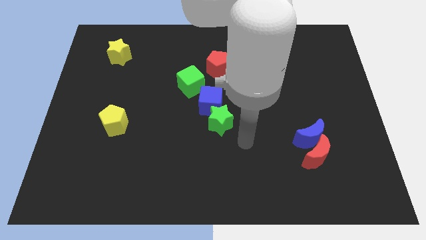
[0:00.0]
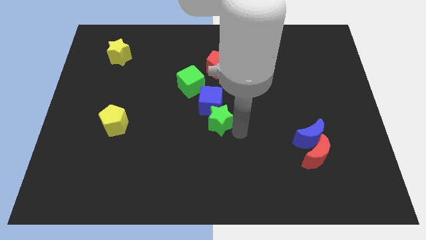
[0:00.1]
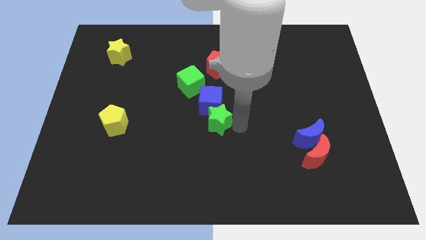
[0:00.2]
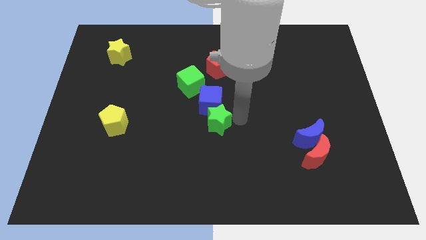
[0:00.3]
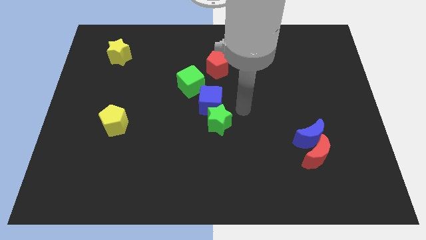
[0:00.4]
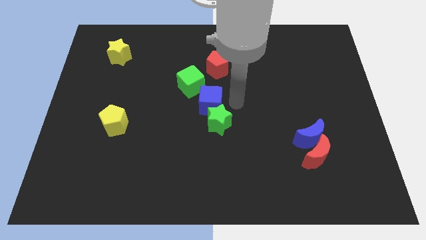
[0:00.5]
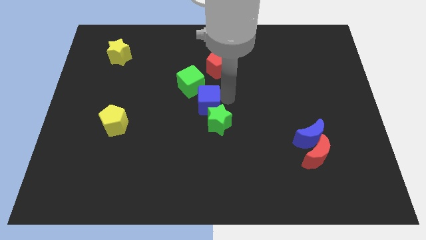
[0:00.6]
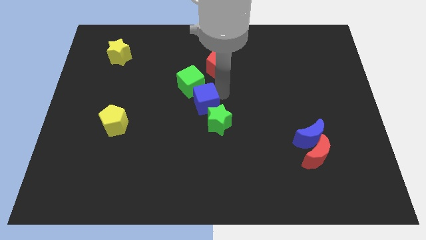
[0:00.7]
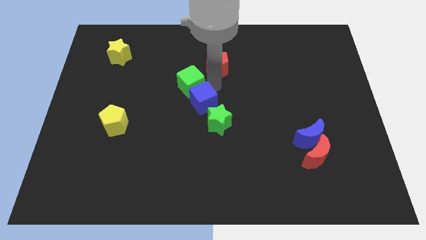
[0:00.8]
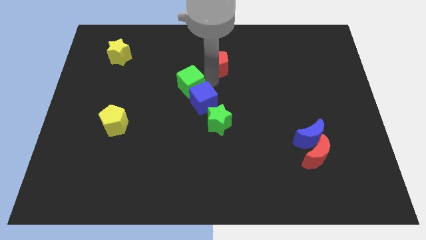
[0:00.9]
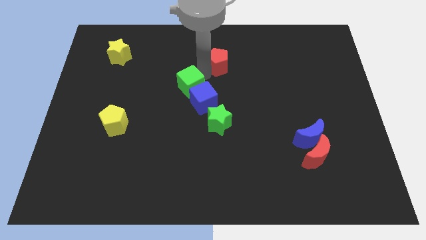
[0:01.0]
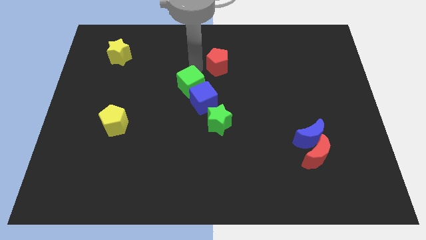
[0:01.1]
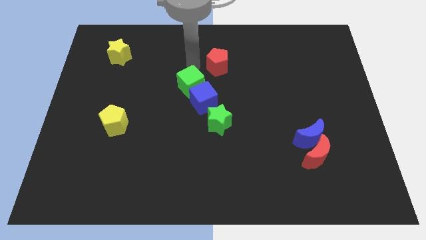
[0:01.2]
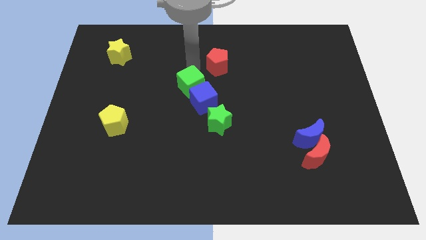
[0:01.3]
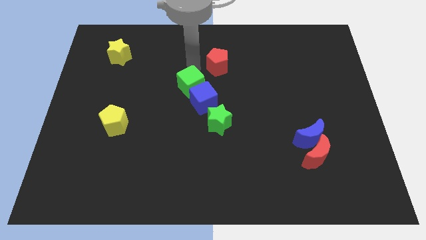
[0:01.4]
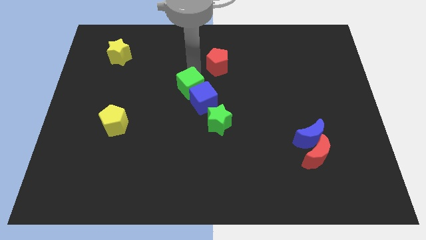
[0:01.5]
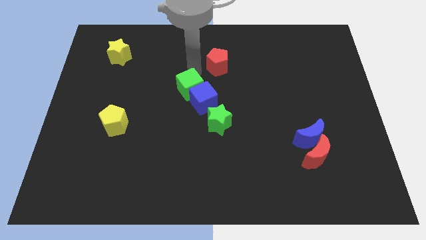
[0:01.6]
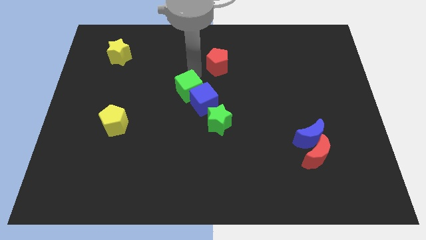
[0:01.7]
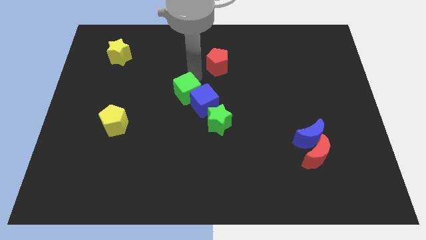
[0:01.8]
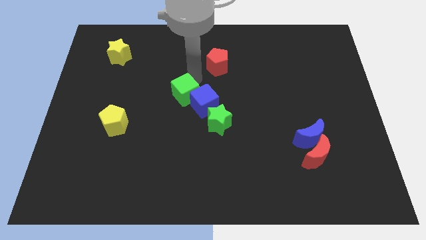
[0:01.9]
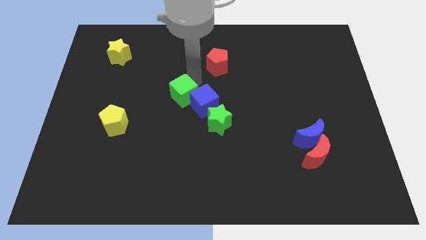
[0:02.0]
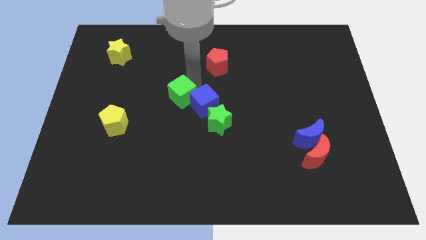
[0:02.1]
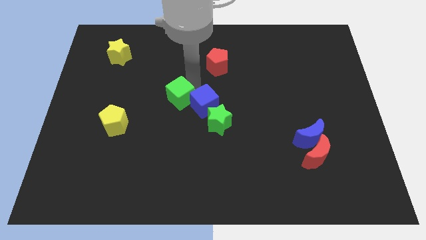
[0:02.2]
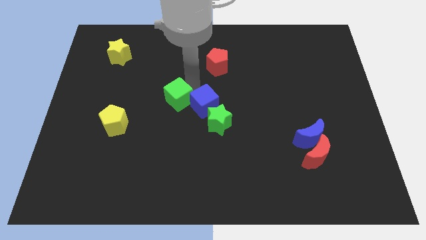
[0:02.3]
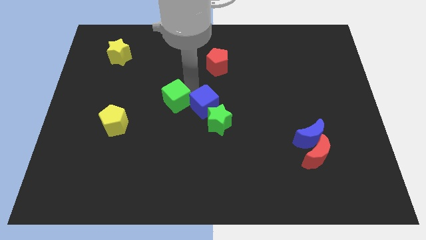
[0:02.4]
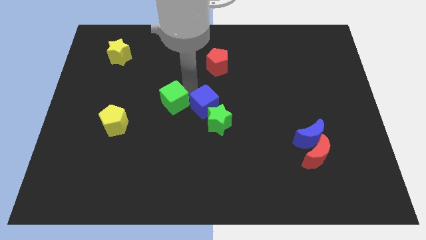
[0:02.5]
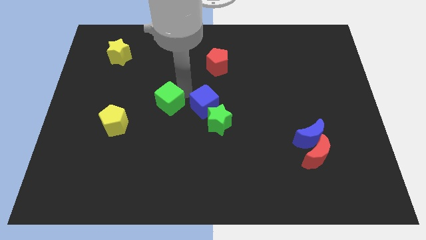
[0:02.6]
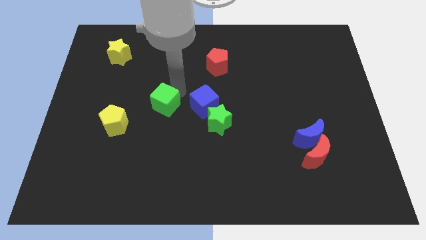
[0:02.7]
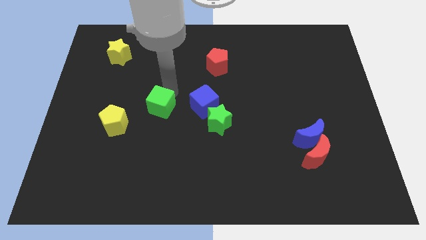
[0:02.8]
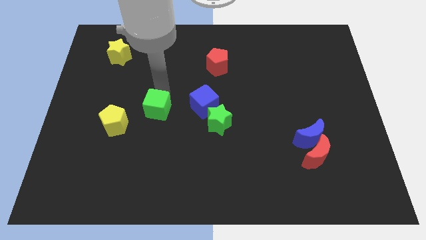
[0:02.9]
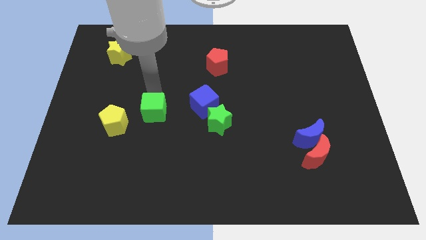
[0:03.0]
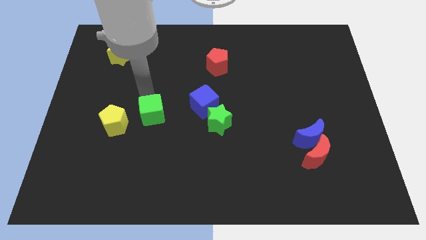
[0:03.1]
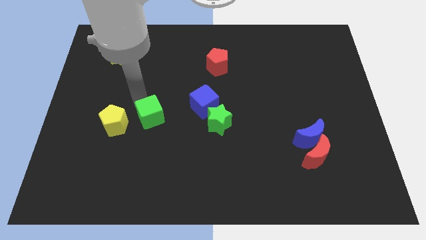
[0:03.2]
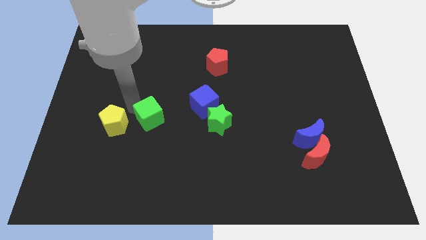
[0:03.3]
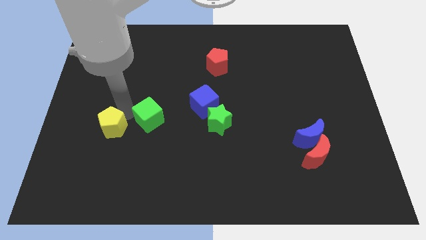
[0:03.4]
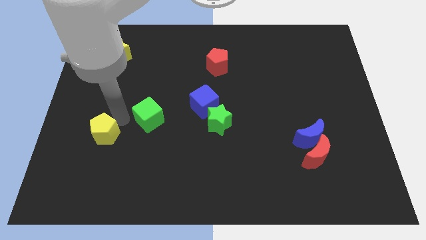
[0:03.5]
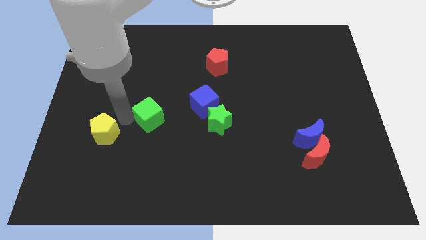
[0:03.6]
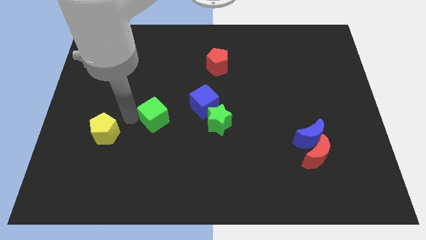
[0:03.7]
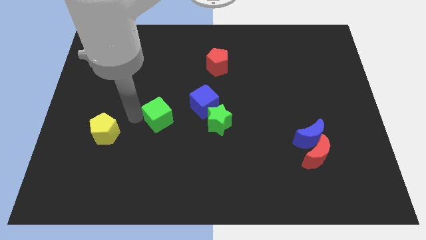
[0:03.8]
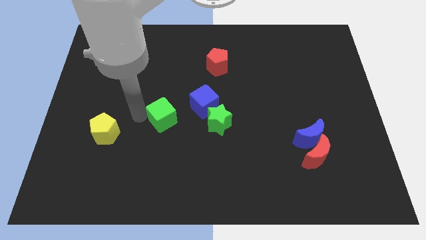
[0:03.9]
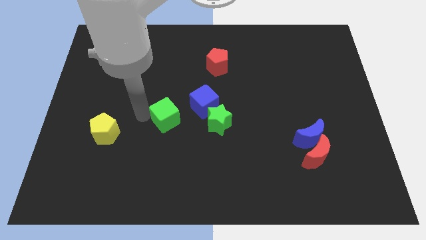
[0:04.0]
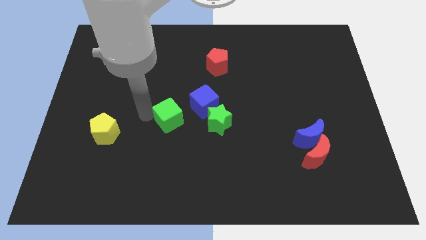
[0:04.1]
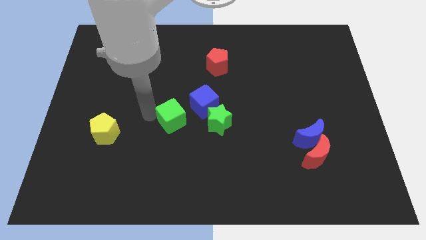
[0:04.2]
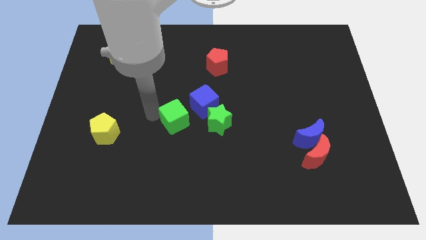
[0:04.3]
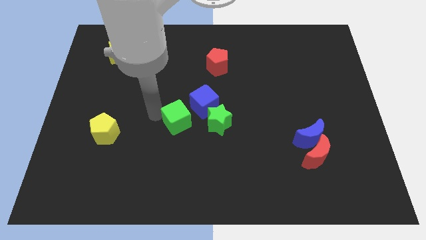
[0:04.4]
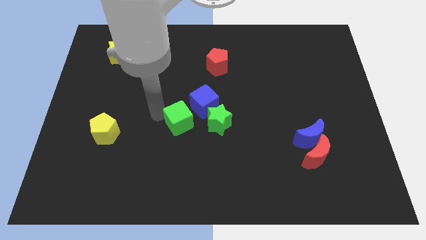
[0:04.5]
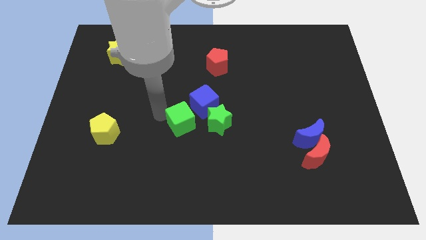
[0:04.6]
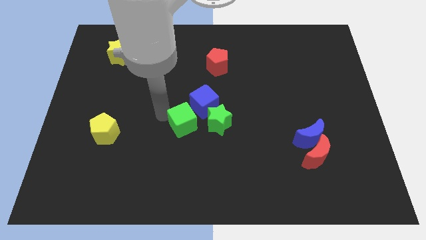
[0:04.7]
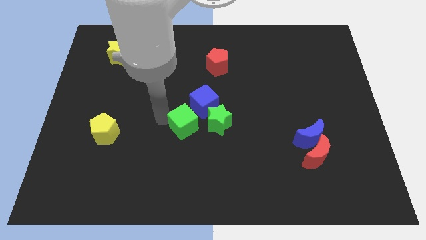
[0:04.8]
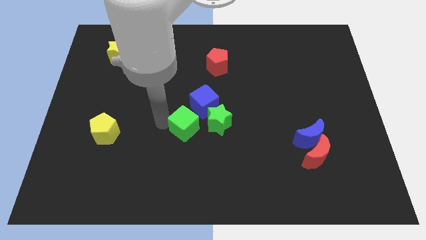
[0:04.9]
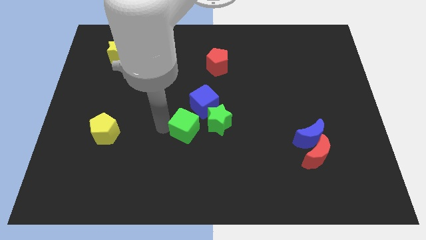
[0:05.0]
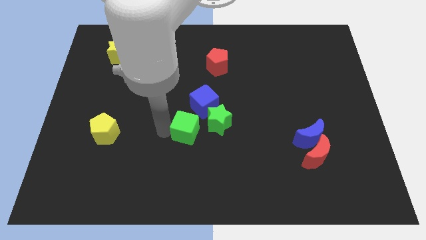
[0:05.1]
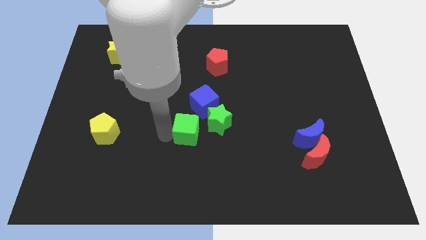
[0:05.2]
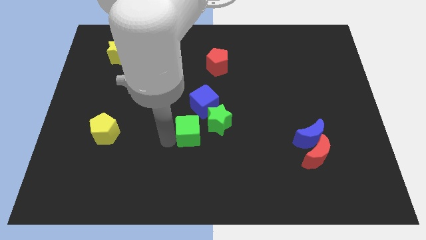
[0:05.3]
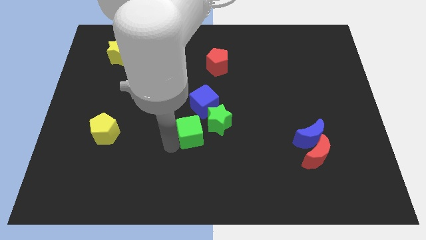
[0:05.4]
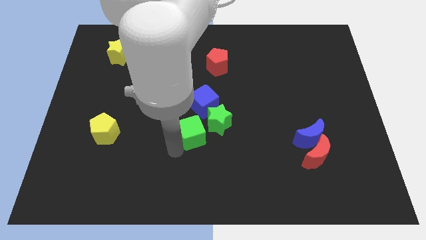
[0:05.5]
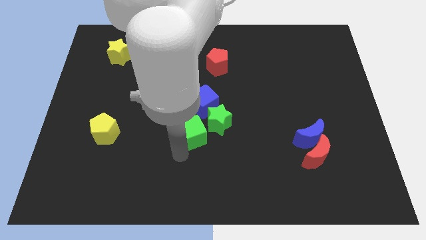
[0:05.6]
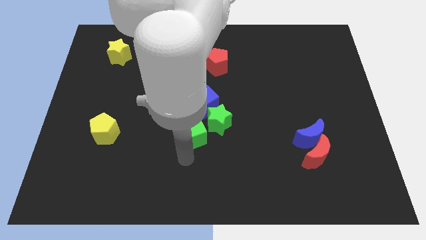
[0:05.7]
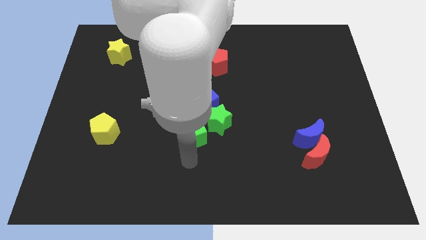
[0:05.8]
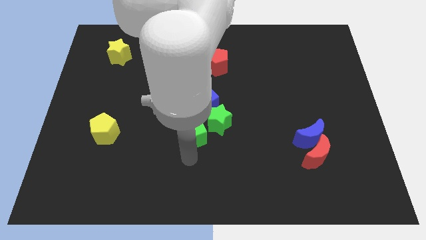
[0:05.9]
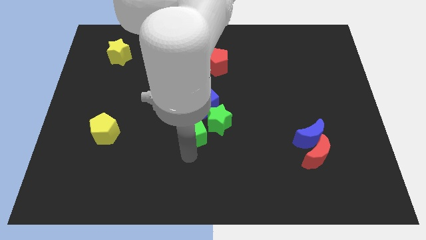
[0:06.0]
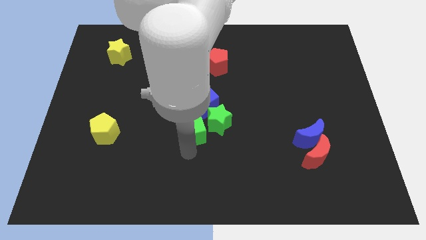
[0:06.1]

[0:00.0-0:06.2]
move the green cube close to the green star

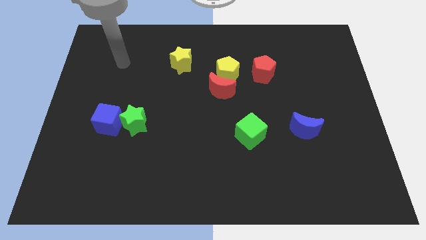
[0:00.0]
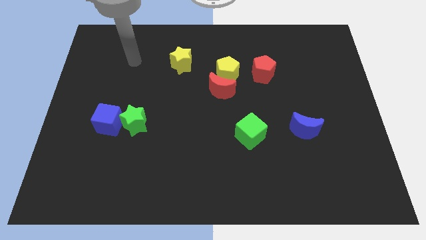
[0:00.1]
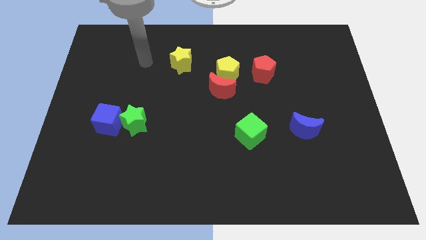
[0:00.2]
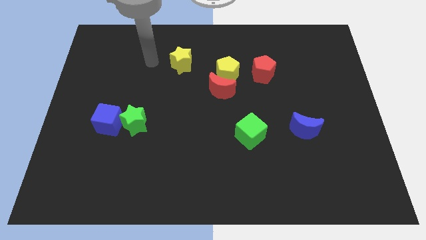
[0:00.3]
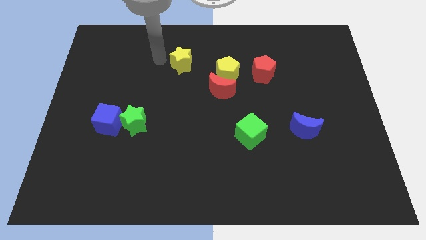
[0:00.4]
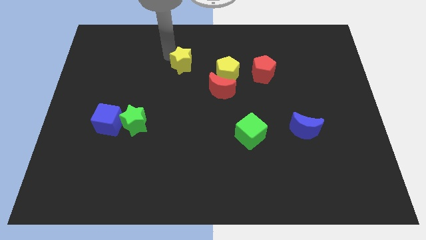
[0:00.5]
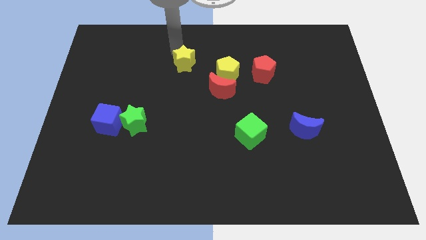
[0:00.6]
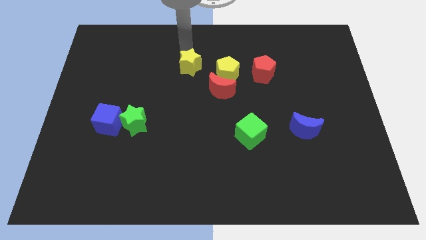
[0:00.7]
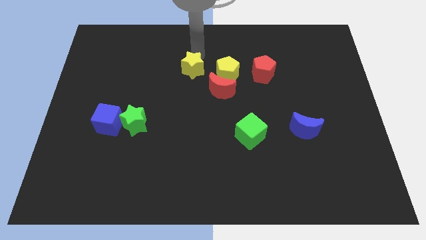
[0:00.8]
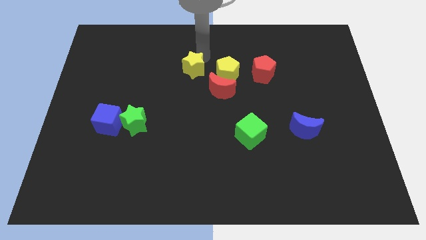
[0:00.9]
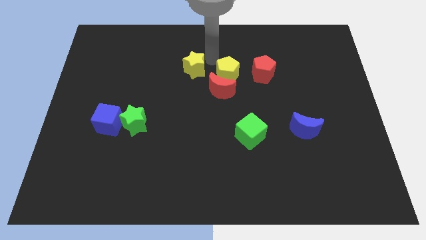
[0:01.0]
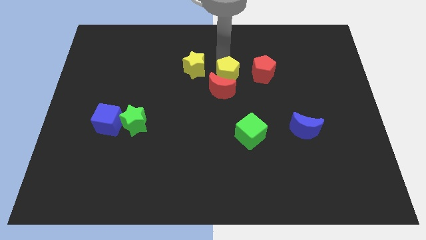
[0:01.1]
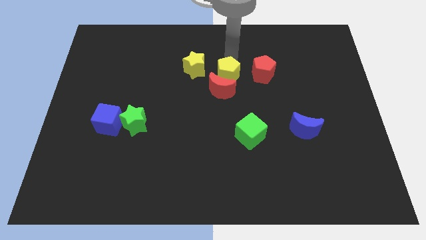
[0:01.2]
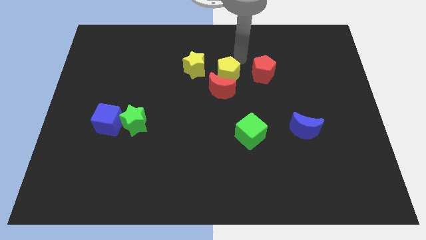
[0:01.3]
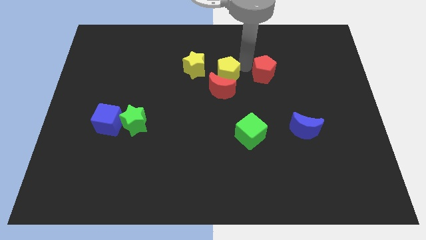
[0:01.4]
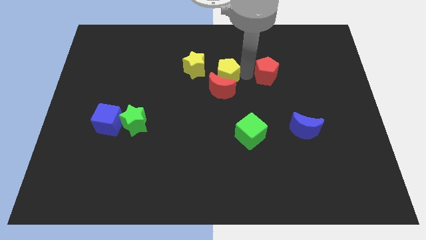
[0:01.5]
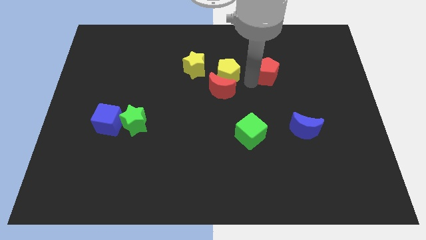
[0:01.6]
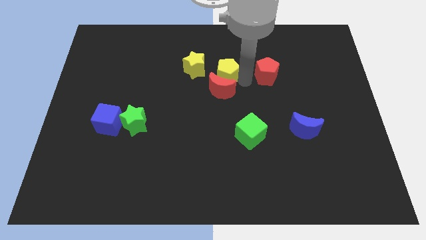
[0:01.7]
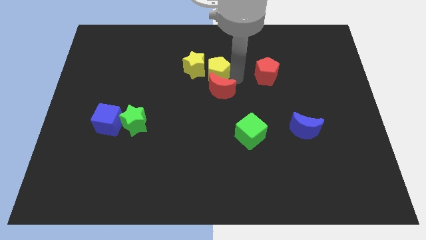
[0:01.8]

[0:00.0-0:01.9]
push the yellow pentagon next to the yellow star
